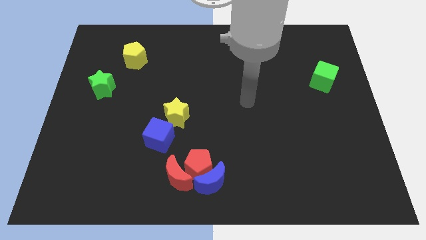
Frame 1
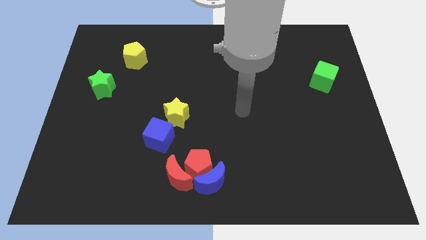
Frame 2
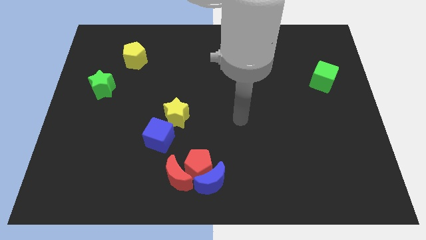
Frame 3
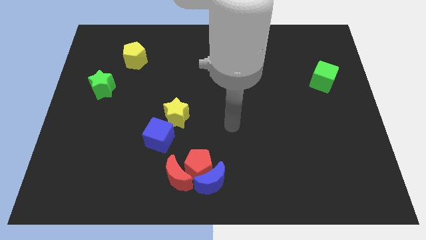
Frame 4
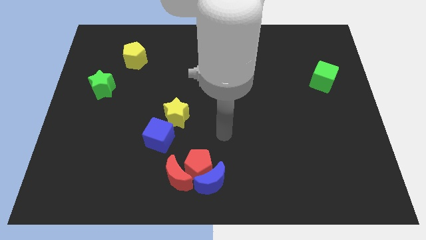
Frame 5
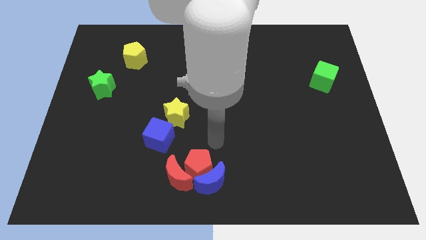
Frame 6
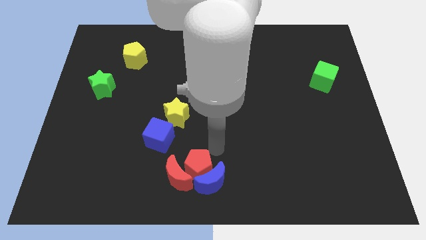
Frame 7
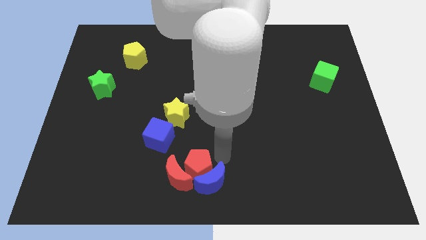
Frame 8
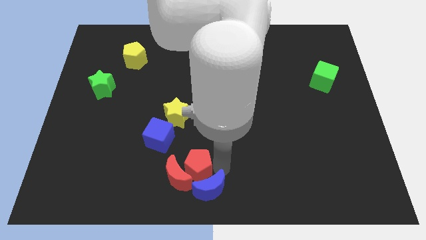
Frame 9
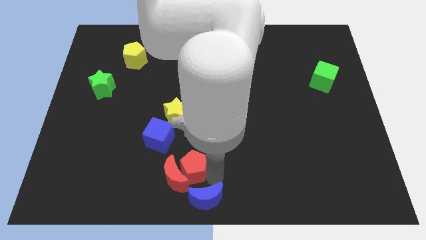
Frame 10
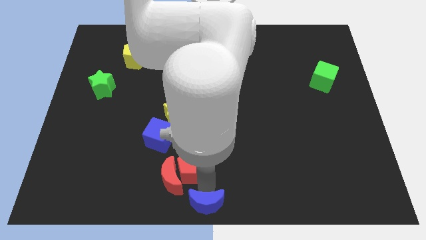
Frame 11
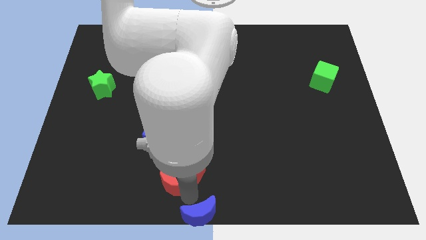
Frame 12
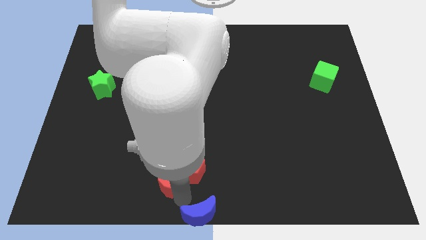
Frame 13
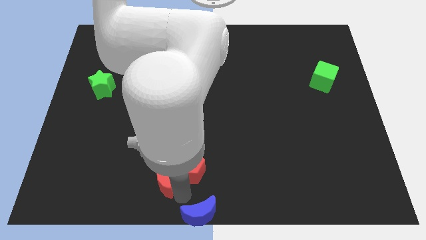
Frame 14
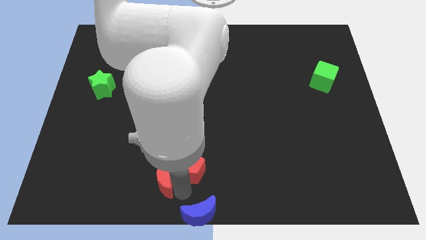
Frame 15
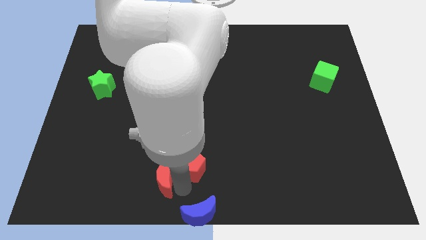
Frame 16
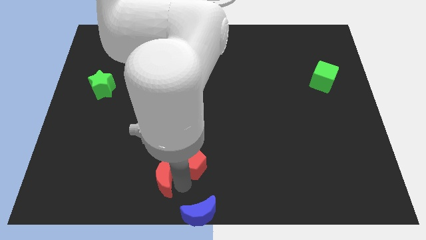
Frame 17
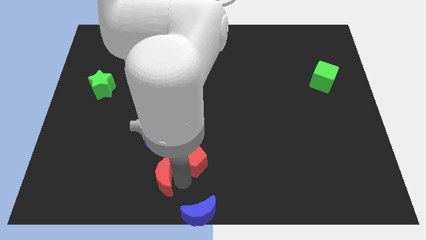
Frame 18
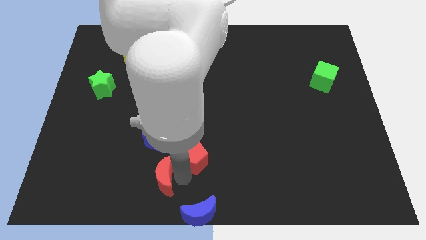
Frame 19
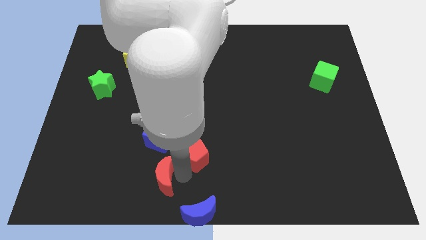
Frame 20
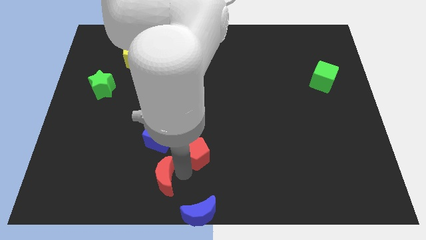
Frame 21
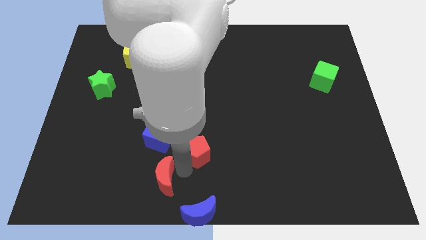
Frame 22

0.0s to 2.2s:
move the red pentagon away from the blue moon and red moon

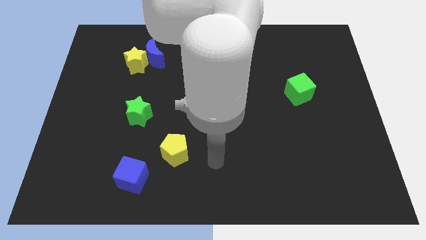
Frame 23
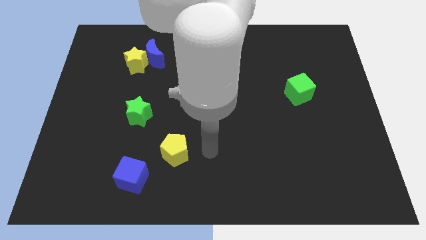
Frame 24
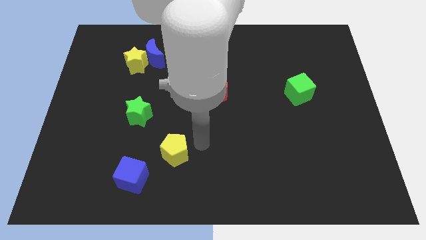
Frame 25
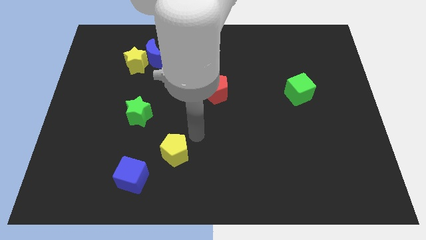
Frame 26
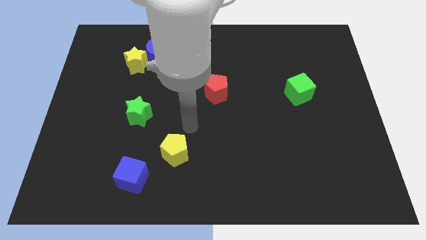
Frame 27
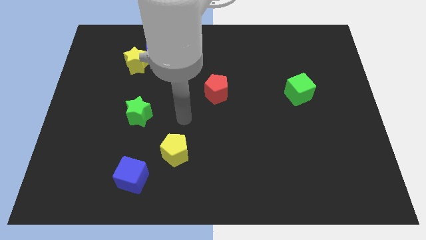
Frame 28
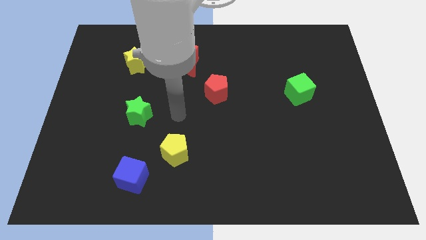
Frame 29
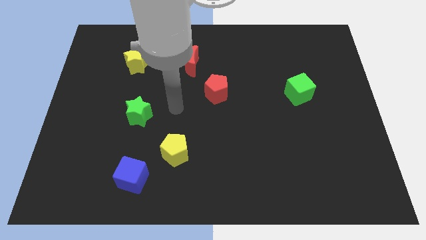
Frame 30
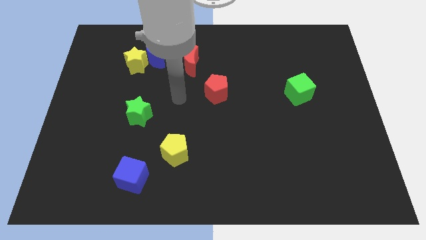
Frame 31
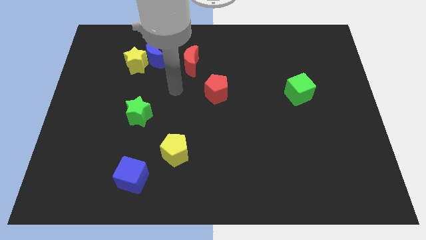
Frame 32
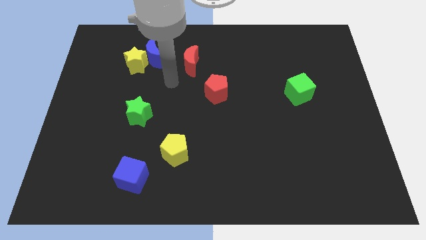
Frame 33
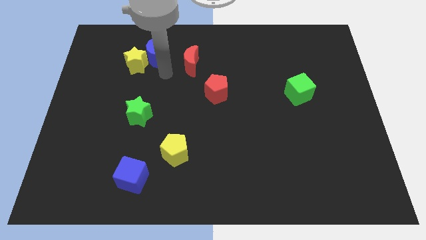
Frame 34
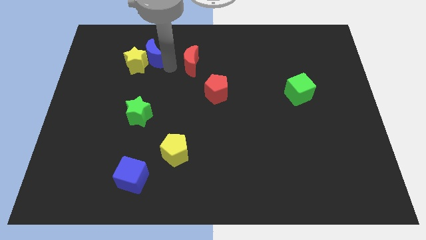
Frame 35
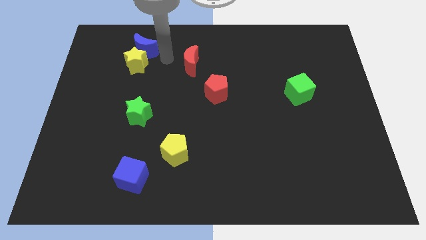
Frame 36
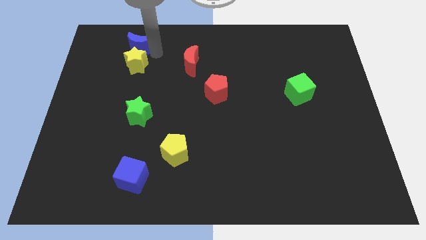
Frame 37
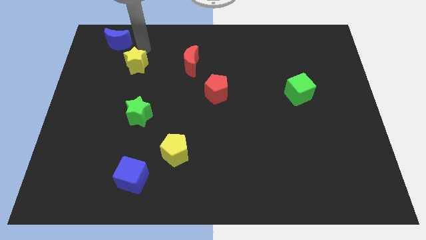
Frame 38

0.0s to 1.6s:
pull the yellow star apart from the blue moon

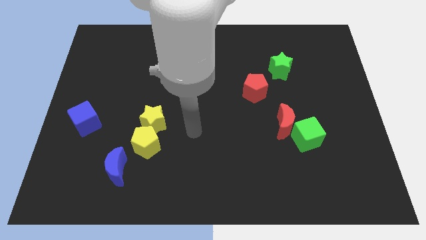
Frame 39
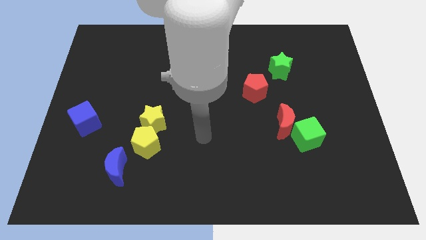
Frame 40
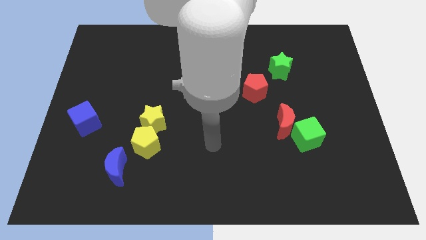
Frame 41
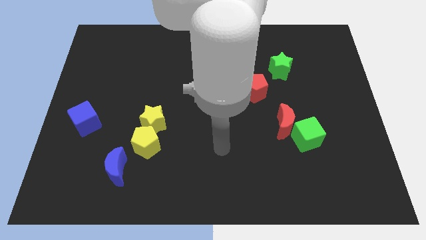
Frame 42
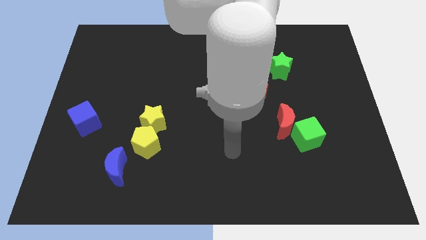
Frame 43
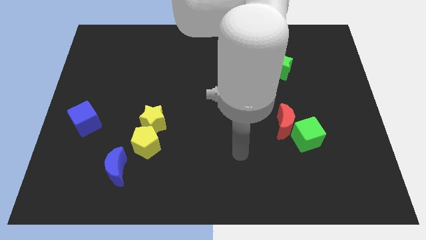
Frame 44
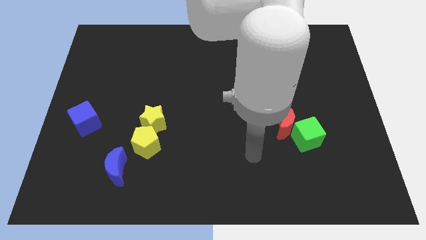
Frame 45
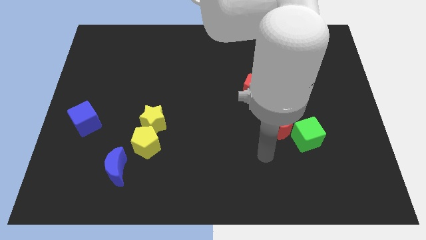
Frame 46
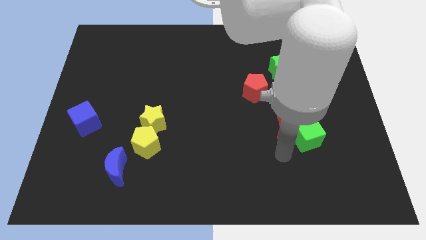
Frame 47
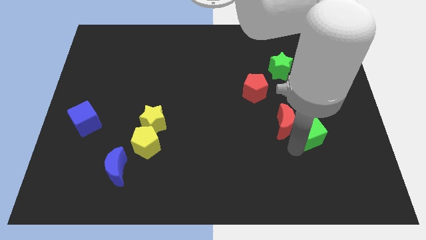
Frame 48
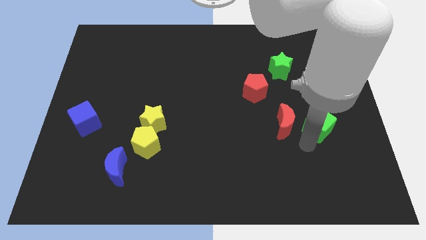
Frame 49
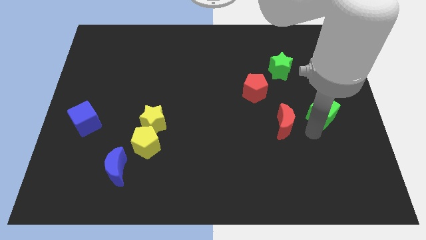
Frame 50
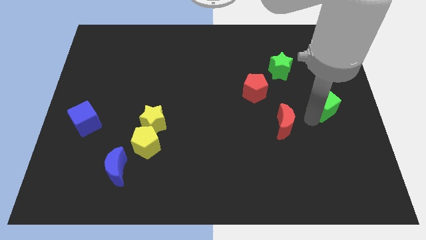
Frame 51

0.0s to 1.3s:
move the red moon away from the green cube

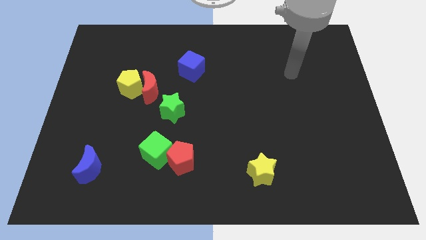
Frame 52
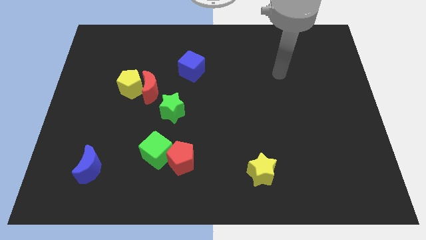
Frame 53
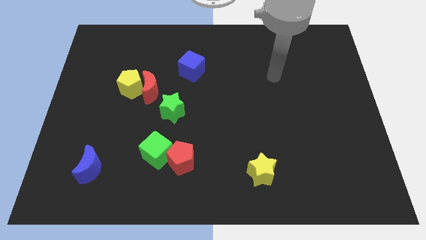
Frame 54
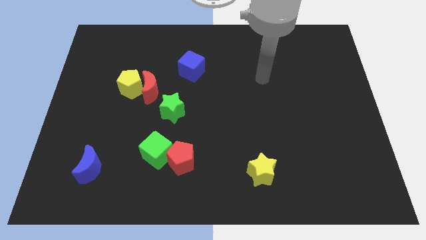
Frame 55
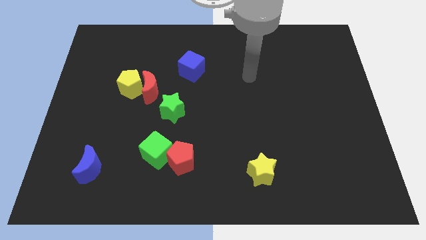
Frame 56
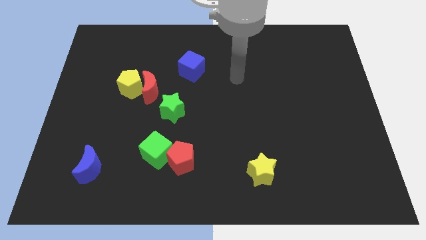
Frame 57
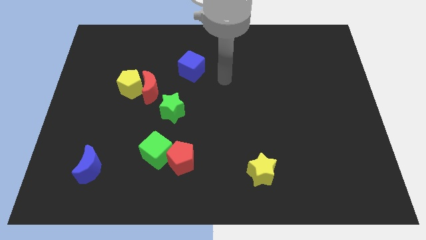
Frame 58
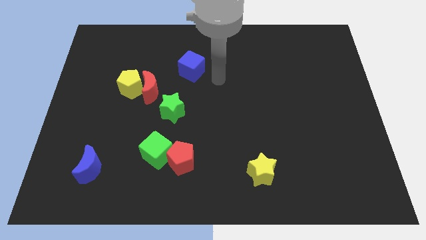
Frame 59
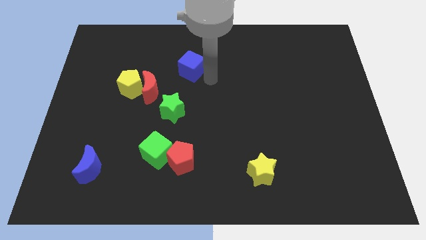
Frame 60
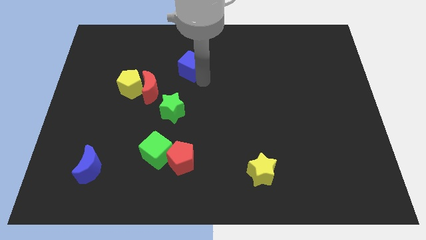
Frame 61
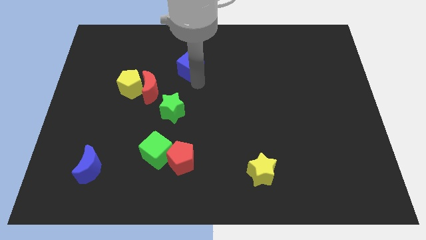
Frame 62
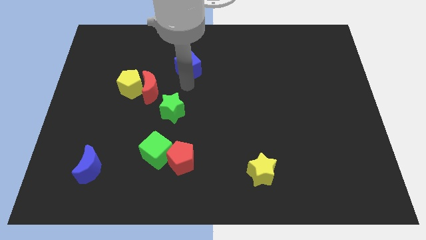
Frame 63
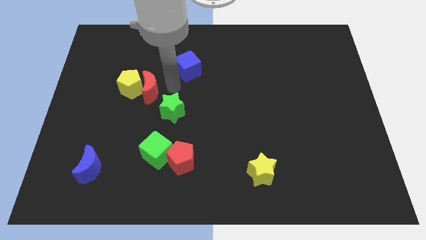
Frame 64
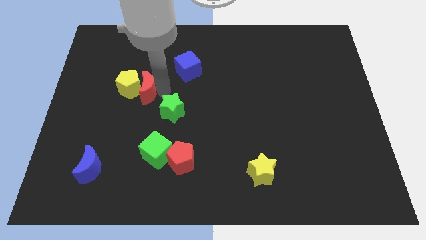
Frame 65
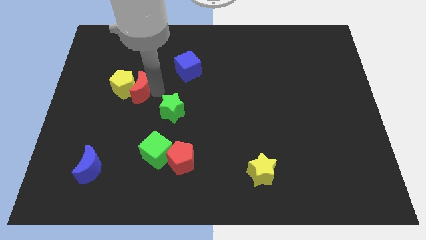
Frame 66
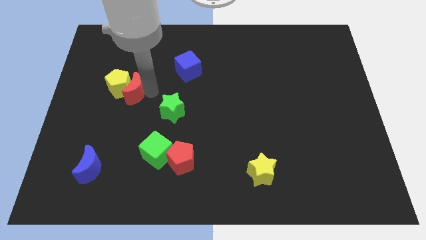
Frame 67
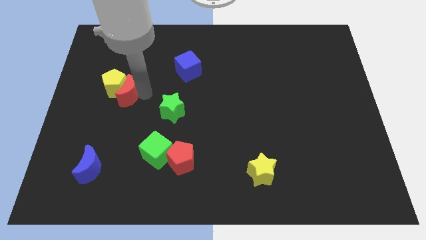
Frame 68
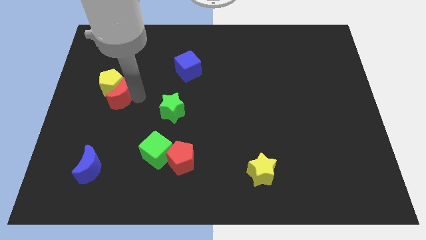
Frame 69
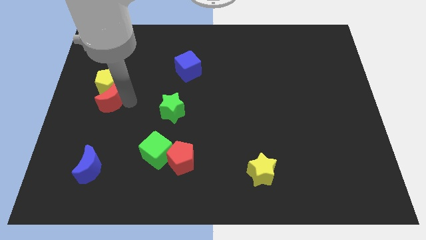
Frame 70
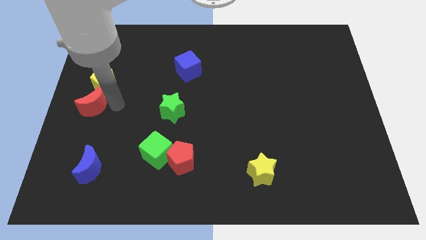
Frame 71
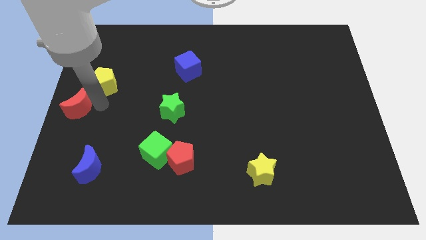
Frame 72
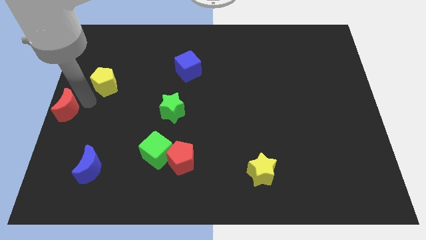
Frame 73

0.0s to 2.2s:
move the yellow pentagon away from the red moon

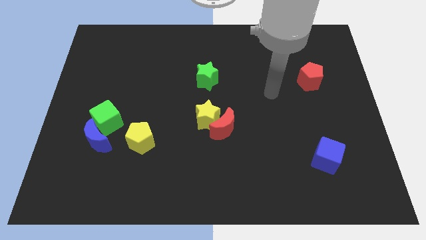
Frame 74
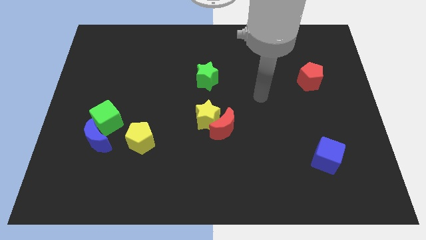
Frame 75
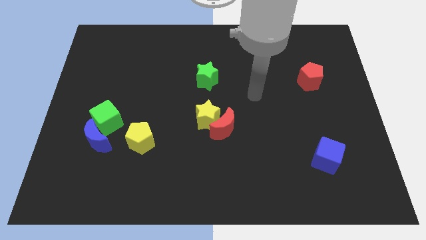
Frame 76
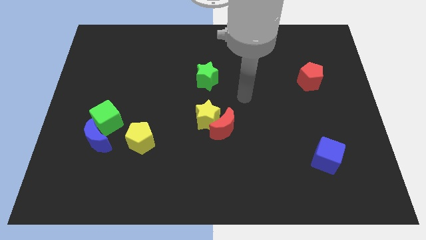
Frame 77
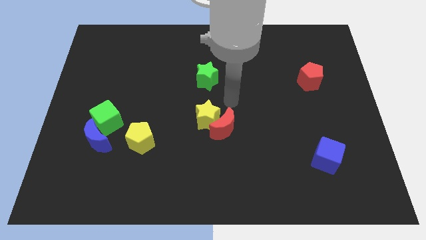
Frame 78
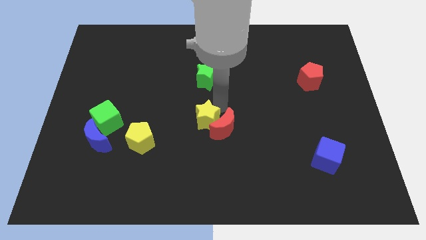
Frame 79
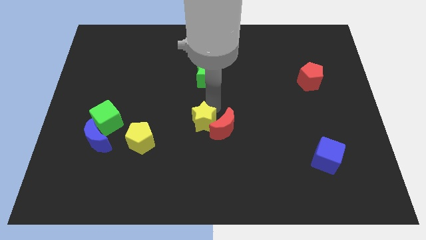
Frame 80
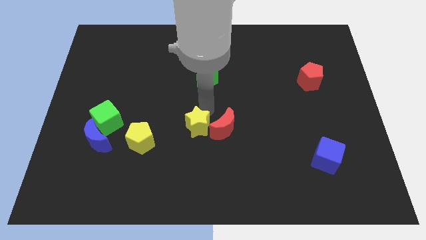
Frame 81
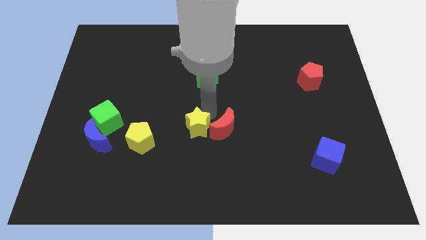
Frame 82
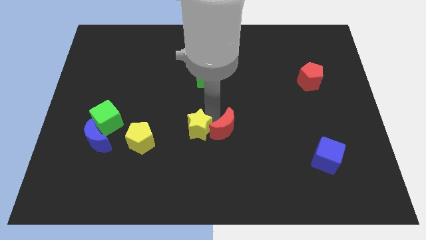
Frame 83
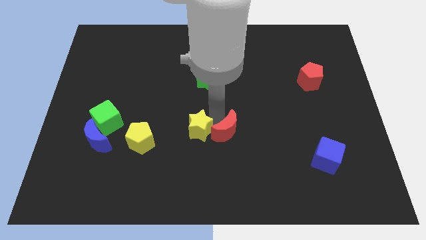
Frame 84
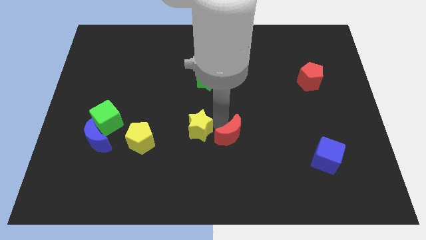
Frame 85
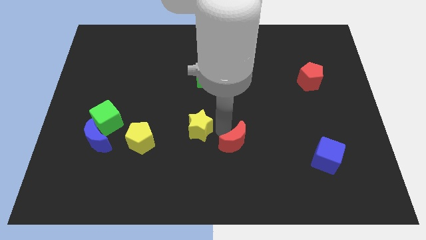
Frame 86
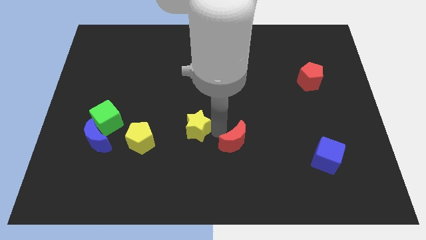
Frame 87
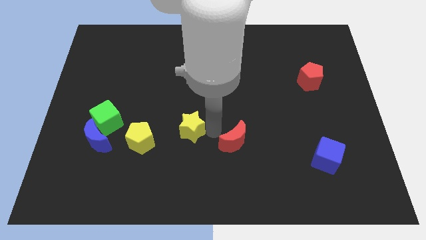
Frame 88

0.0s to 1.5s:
separate the red moon from the yellow star

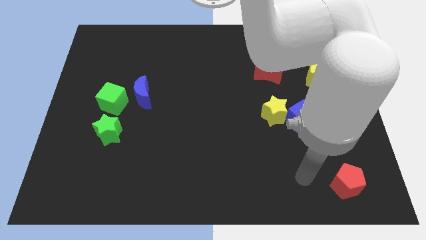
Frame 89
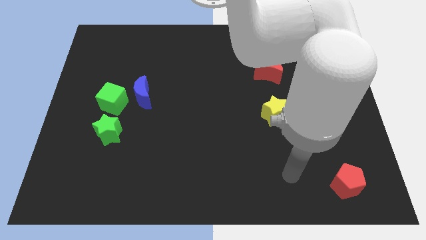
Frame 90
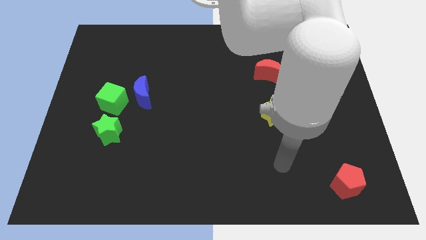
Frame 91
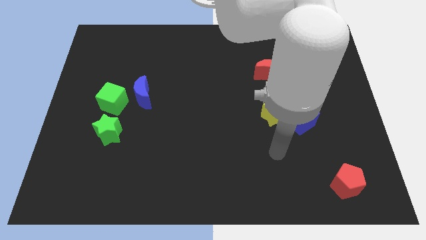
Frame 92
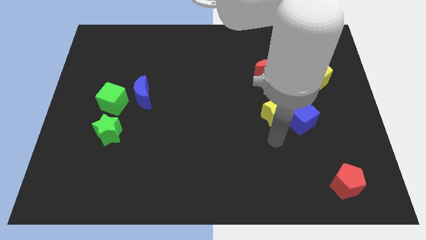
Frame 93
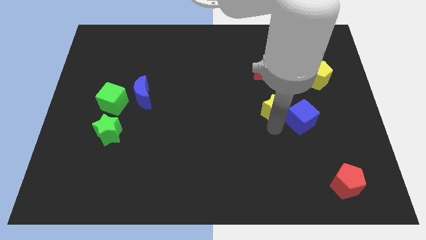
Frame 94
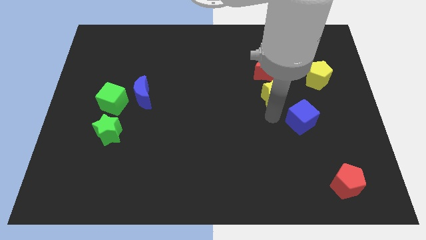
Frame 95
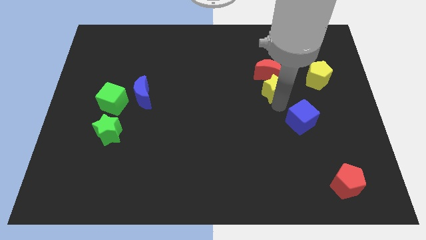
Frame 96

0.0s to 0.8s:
pull the blue cube apart from the yellow star
